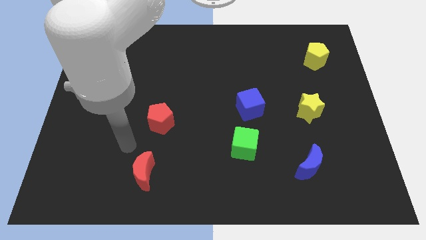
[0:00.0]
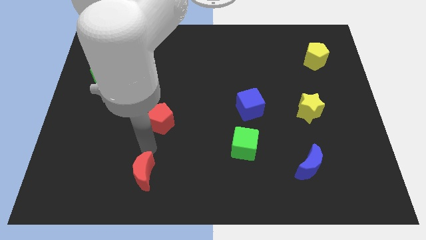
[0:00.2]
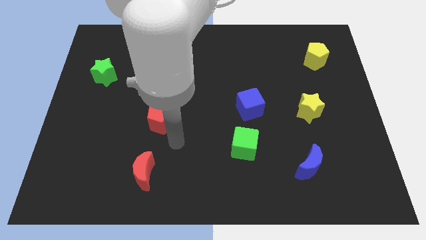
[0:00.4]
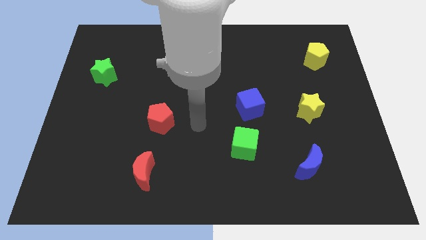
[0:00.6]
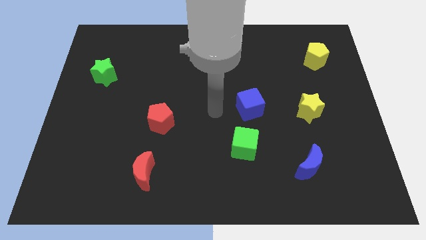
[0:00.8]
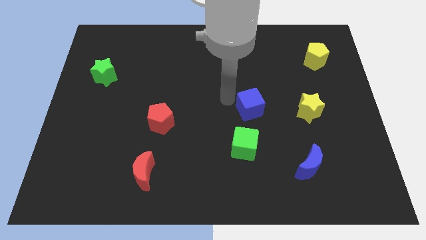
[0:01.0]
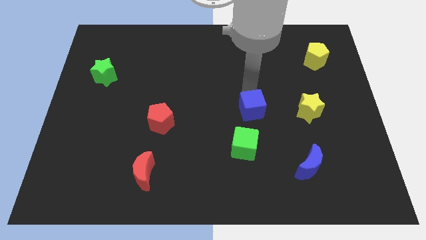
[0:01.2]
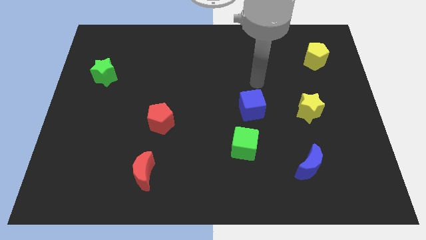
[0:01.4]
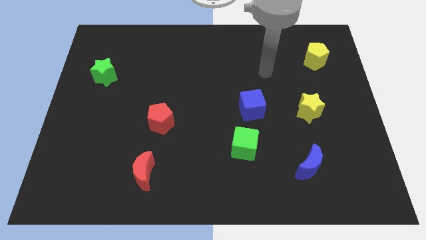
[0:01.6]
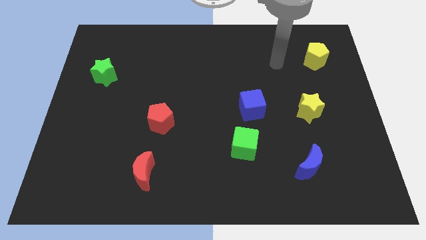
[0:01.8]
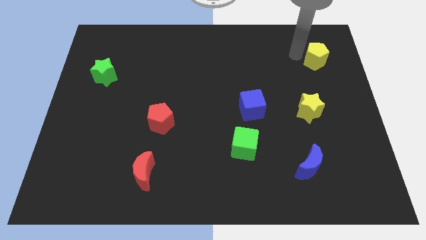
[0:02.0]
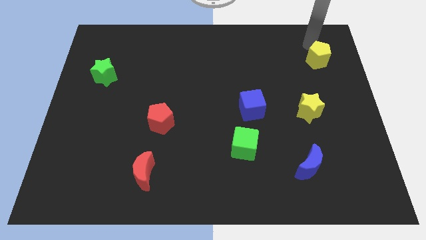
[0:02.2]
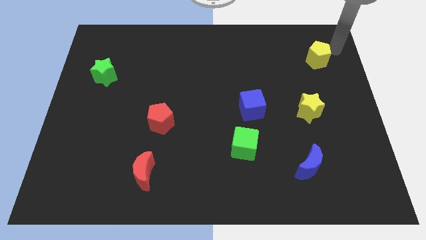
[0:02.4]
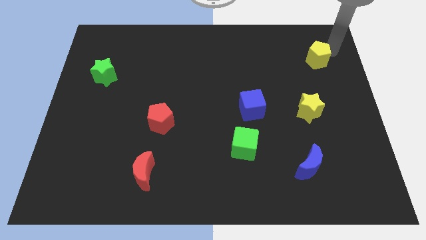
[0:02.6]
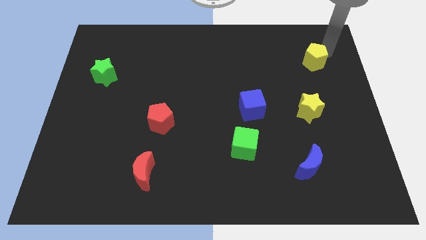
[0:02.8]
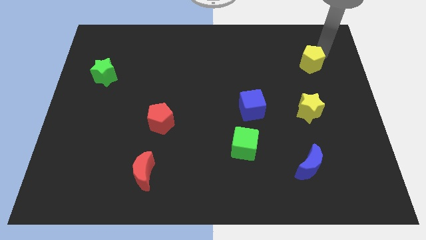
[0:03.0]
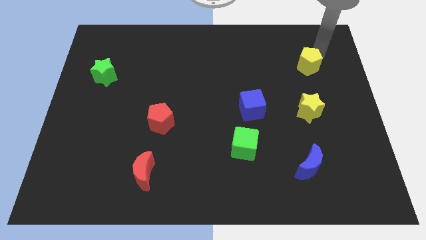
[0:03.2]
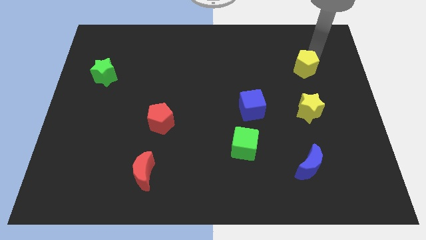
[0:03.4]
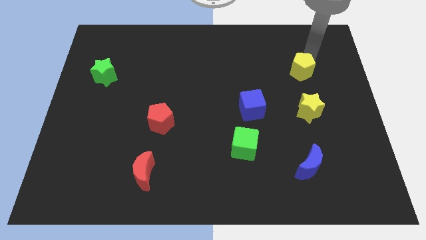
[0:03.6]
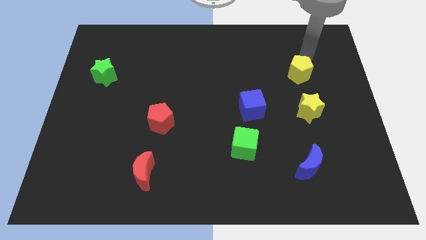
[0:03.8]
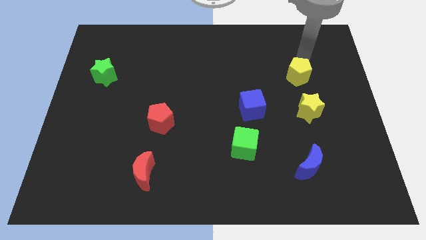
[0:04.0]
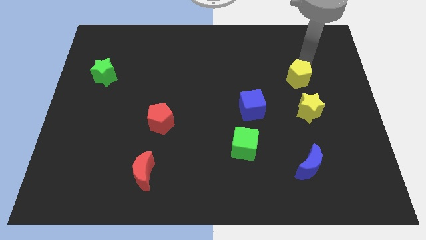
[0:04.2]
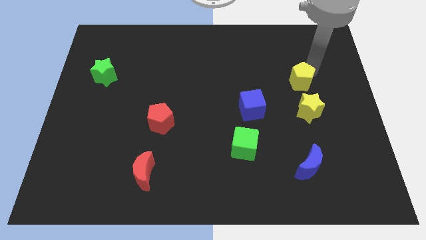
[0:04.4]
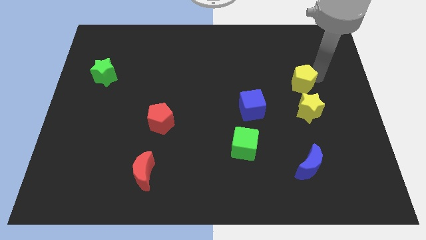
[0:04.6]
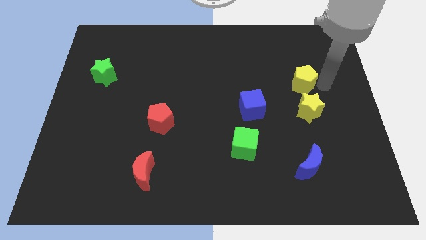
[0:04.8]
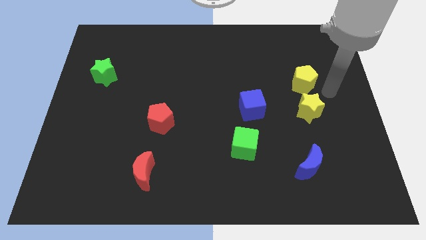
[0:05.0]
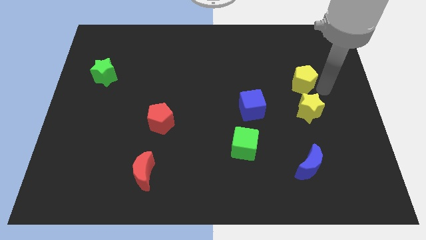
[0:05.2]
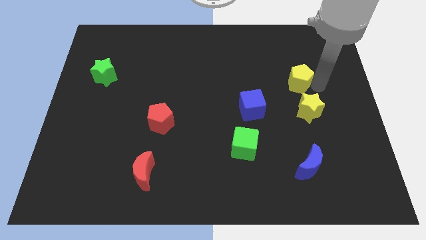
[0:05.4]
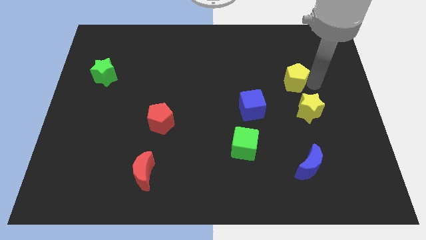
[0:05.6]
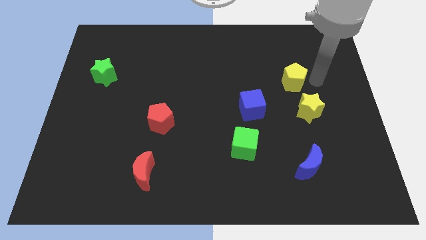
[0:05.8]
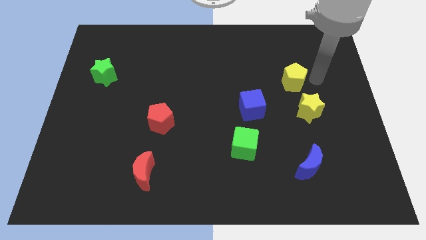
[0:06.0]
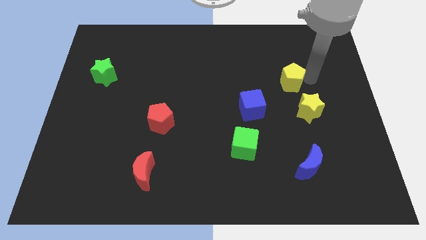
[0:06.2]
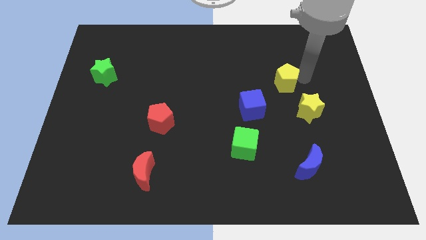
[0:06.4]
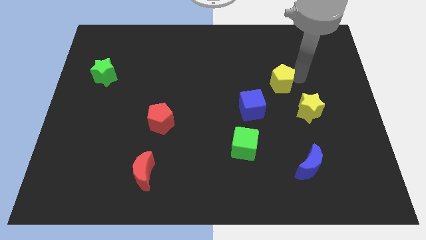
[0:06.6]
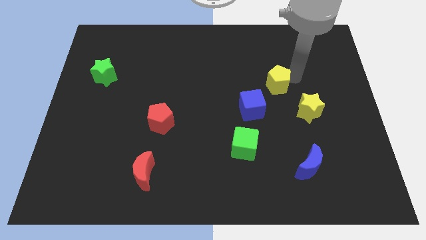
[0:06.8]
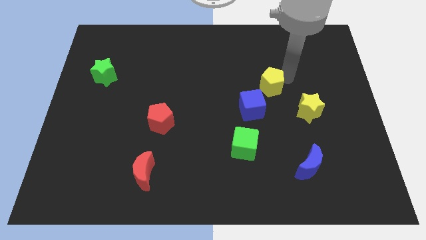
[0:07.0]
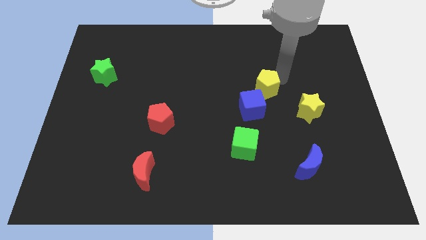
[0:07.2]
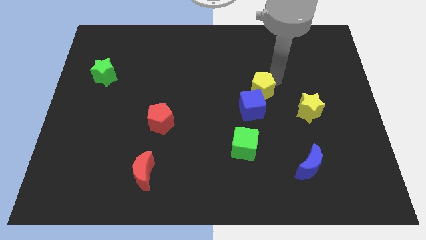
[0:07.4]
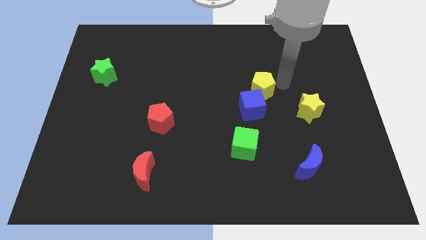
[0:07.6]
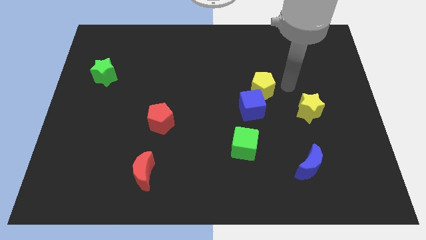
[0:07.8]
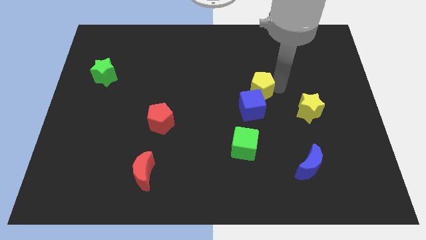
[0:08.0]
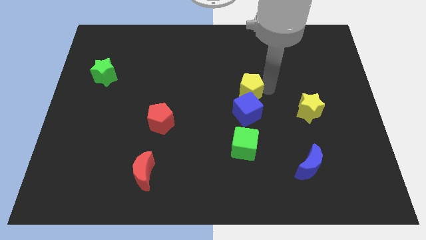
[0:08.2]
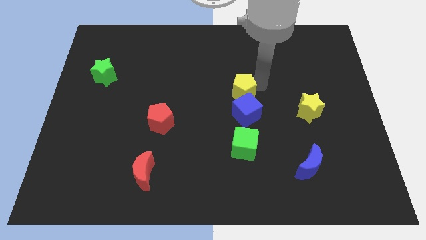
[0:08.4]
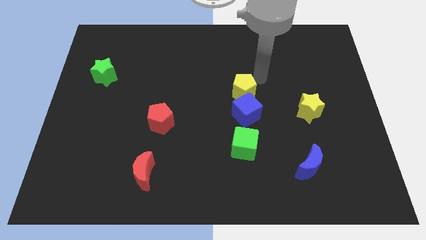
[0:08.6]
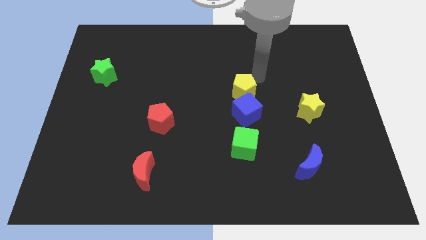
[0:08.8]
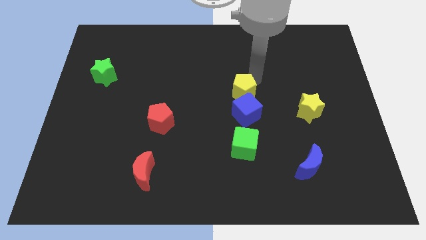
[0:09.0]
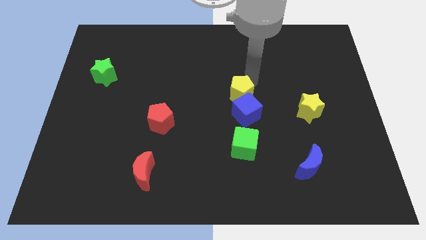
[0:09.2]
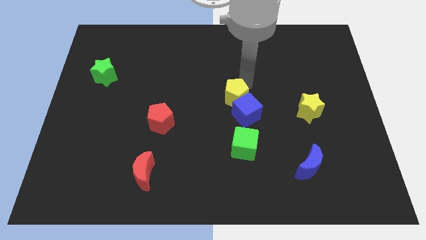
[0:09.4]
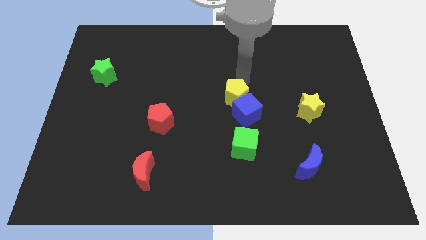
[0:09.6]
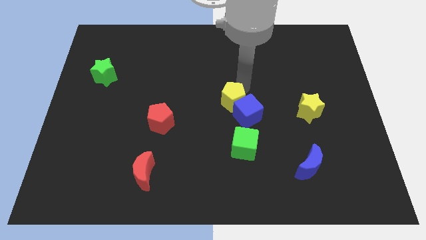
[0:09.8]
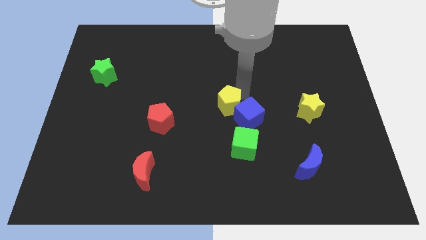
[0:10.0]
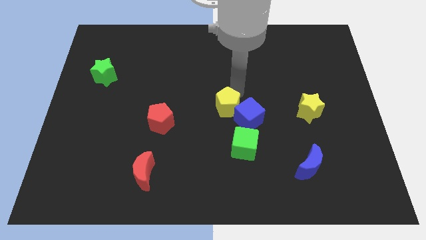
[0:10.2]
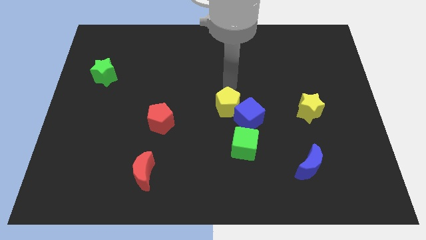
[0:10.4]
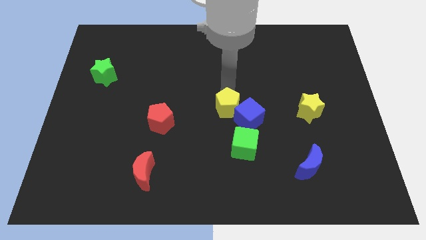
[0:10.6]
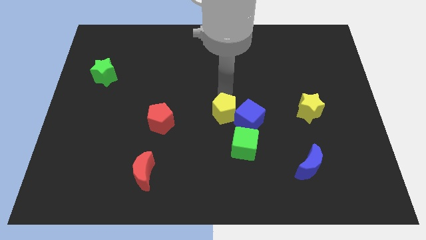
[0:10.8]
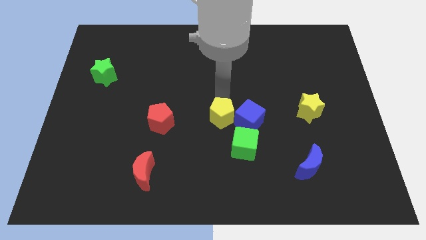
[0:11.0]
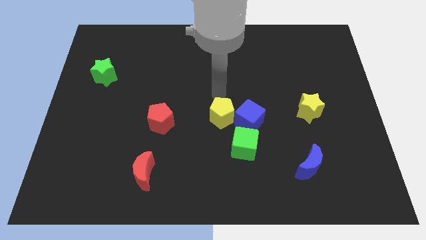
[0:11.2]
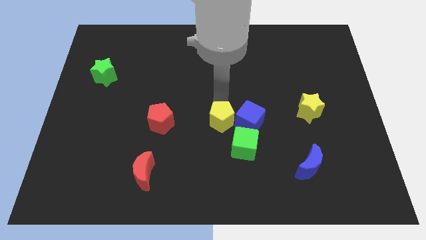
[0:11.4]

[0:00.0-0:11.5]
push the yellow pentagon to the bottom left side of the blue cube

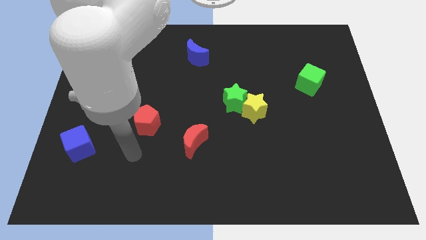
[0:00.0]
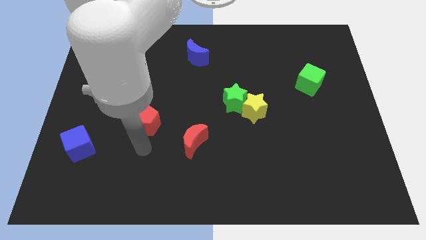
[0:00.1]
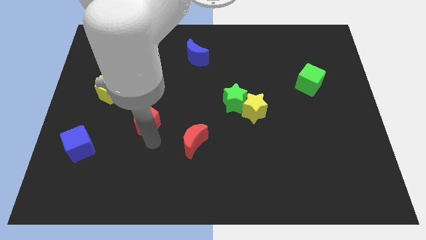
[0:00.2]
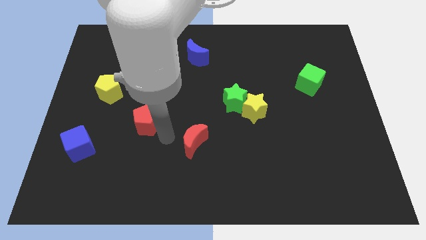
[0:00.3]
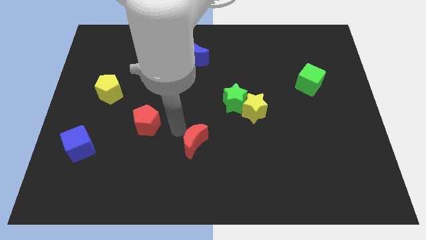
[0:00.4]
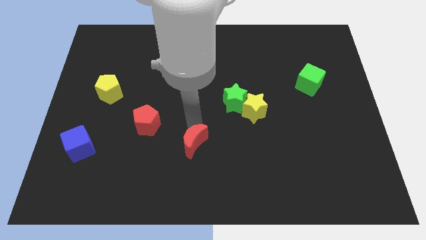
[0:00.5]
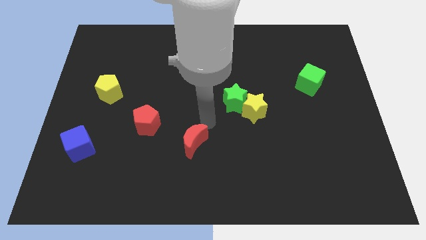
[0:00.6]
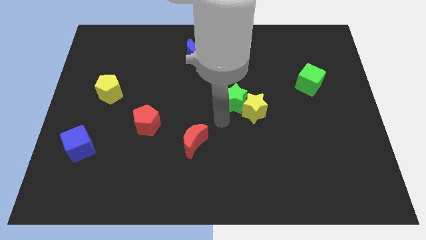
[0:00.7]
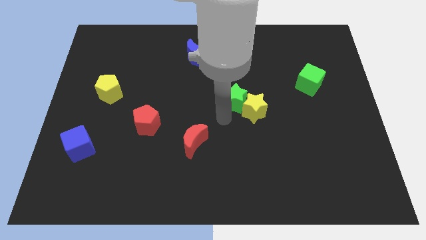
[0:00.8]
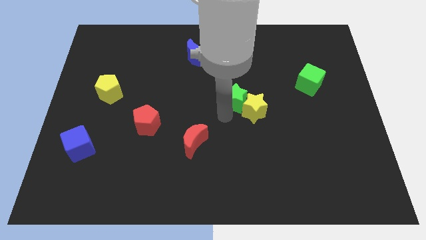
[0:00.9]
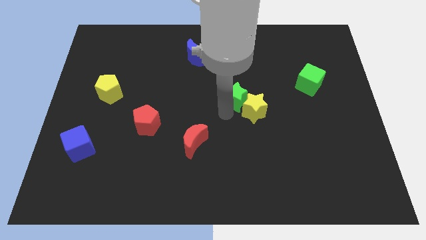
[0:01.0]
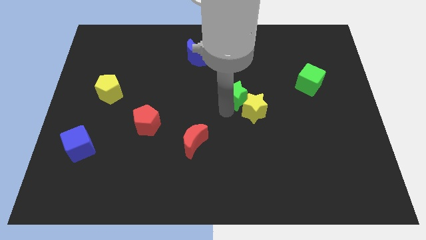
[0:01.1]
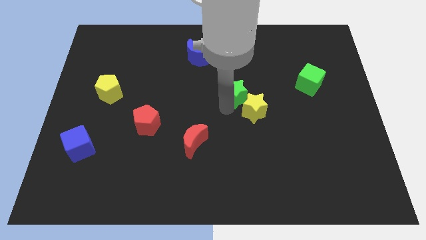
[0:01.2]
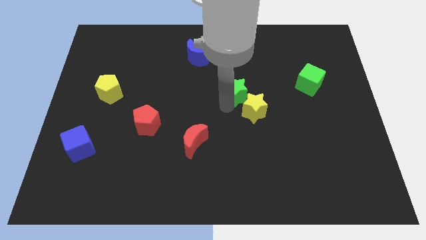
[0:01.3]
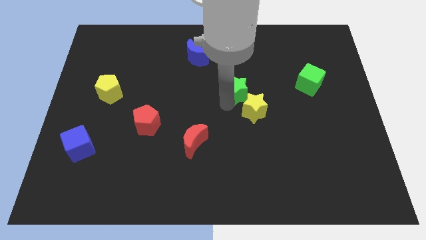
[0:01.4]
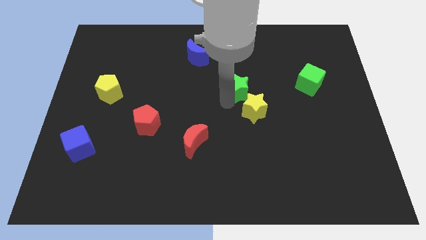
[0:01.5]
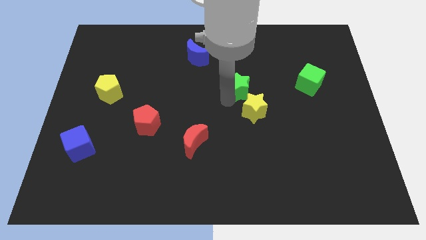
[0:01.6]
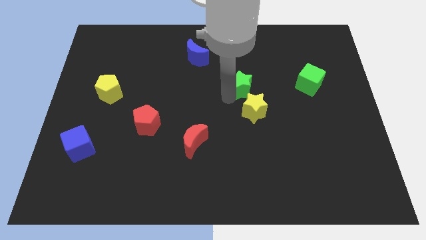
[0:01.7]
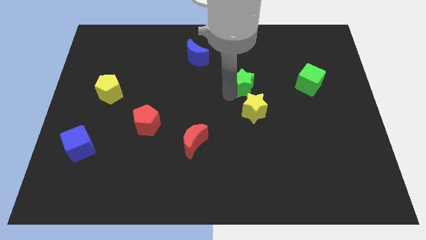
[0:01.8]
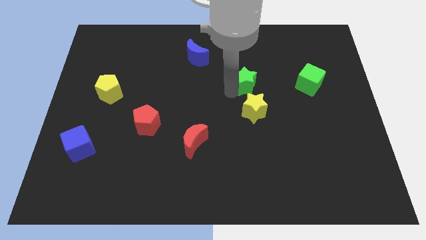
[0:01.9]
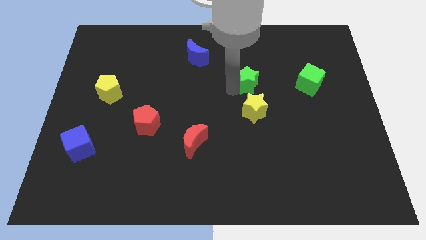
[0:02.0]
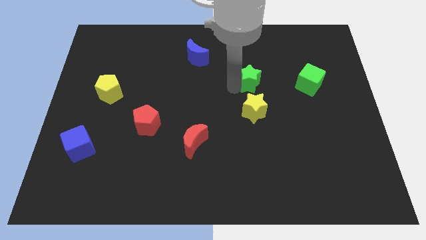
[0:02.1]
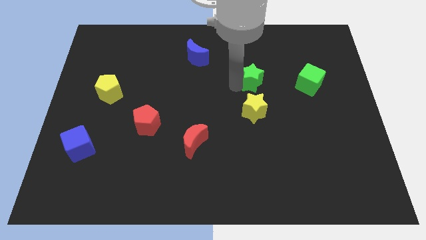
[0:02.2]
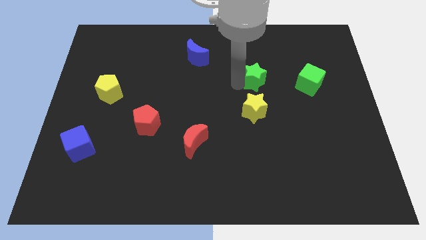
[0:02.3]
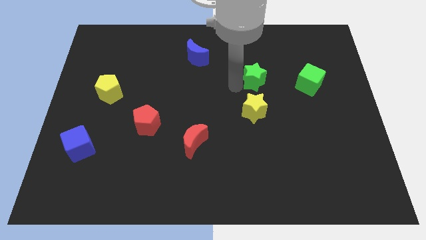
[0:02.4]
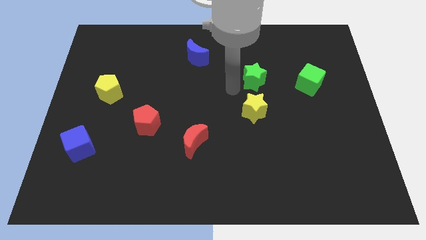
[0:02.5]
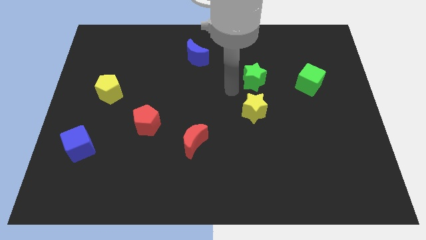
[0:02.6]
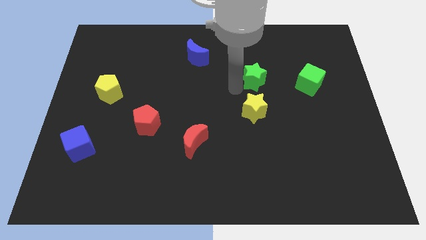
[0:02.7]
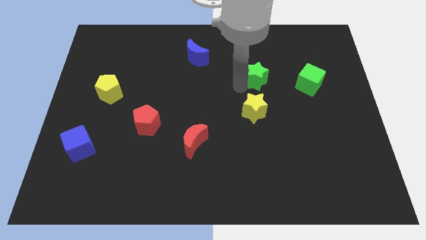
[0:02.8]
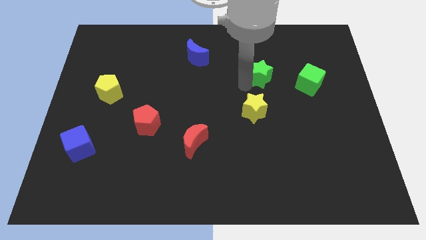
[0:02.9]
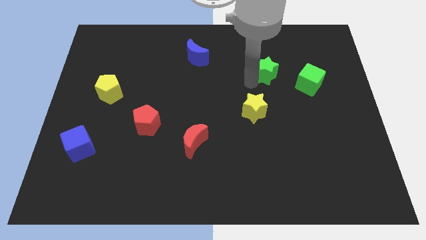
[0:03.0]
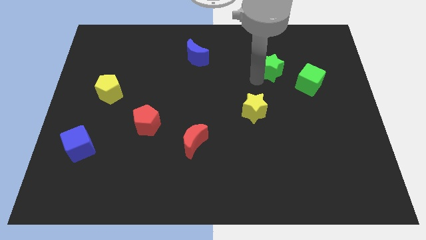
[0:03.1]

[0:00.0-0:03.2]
put the green star to the top left of the green cube
